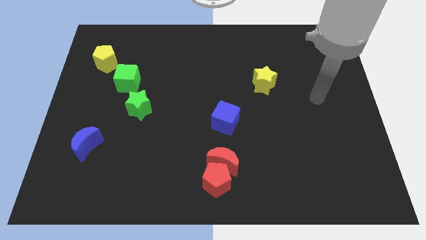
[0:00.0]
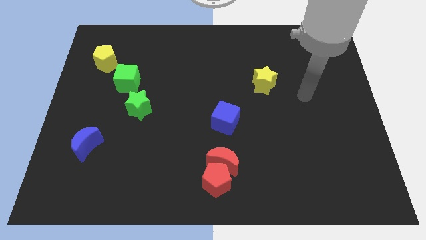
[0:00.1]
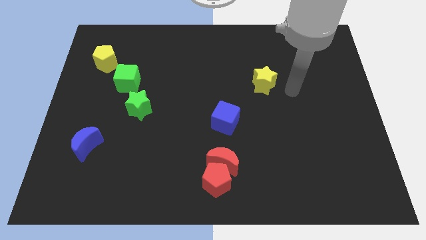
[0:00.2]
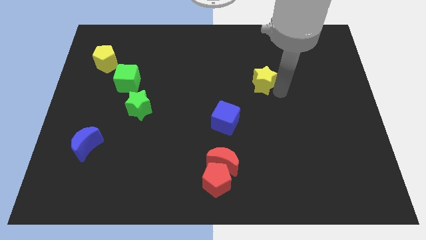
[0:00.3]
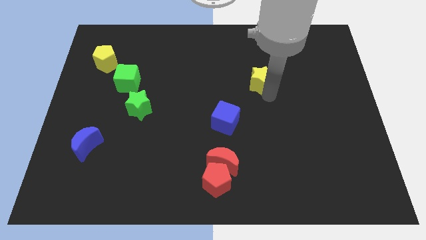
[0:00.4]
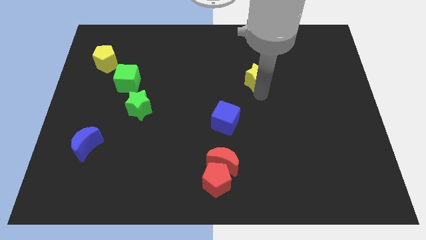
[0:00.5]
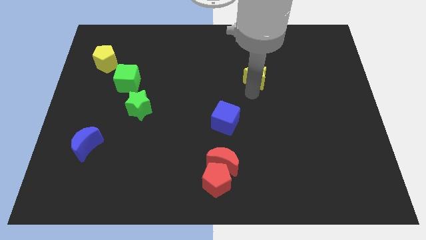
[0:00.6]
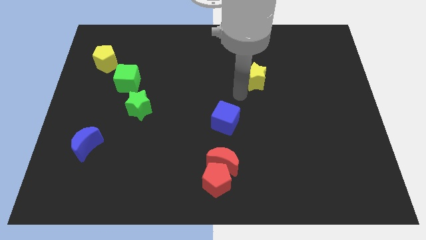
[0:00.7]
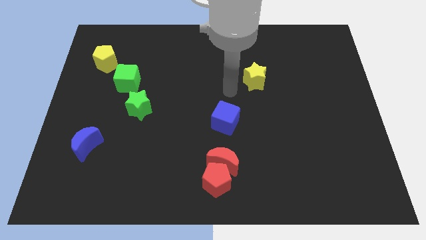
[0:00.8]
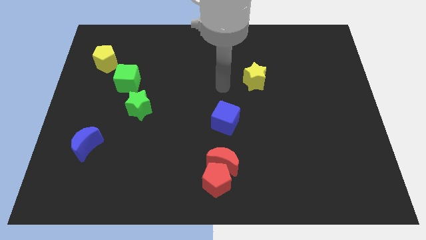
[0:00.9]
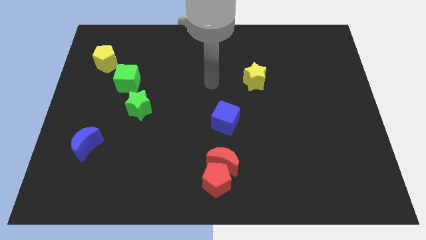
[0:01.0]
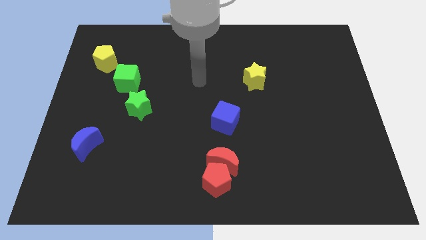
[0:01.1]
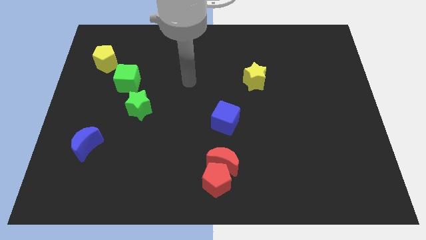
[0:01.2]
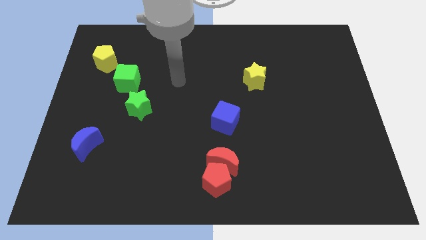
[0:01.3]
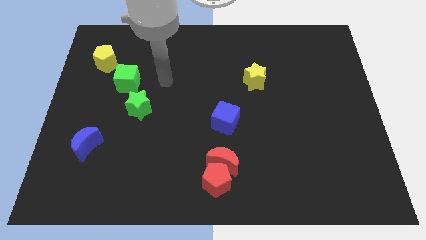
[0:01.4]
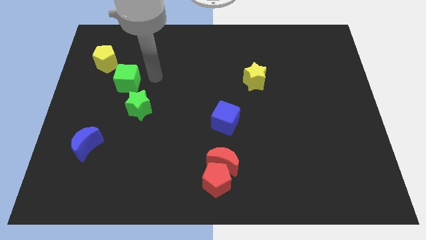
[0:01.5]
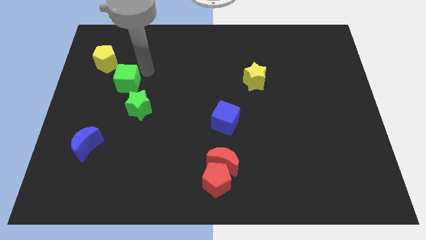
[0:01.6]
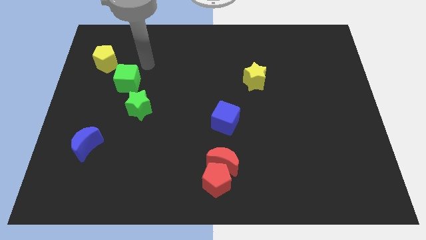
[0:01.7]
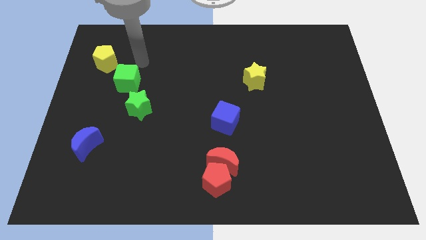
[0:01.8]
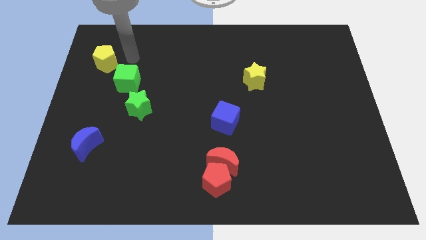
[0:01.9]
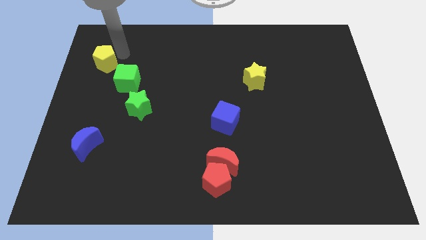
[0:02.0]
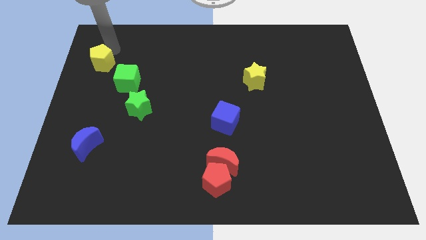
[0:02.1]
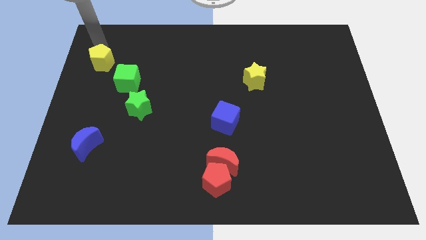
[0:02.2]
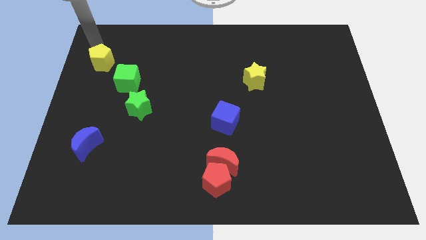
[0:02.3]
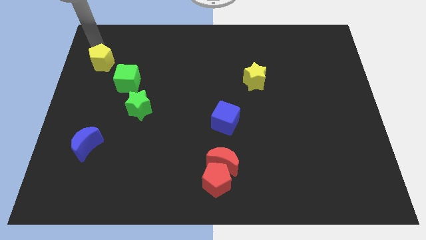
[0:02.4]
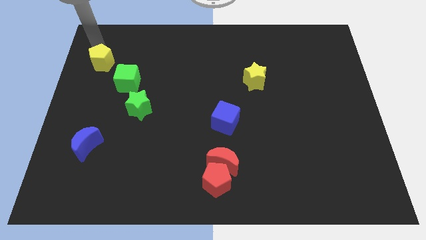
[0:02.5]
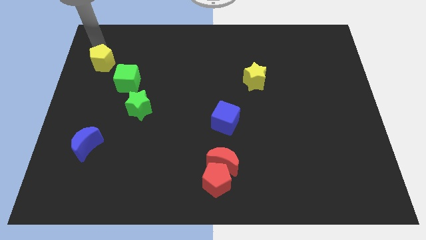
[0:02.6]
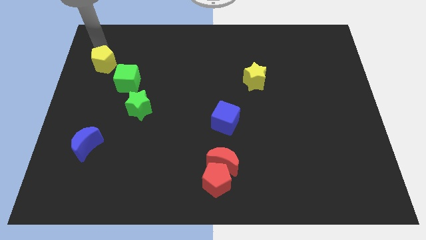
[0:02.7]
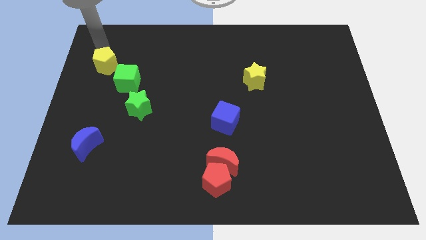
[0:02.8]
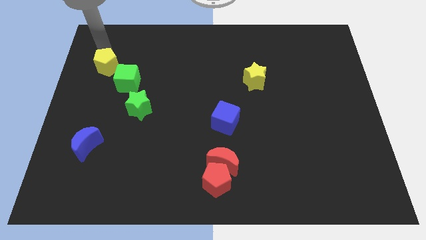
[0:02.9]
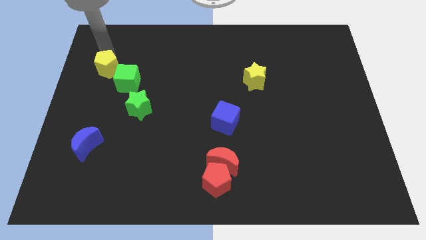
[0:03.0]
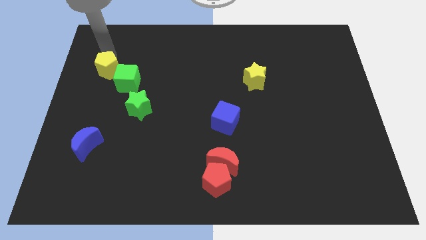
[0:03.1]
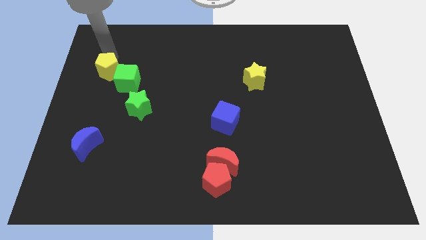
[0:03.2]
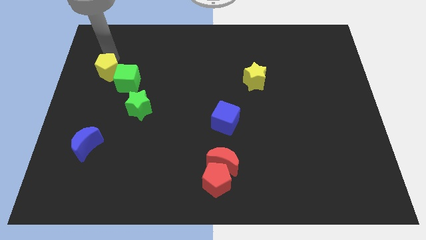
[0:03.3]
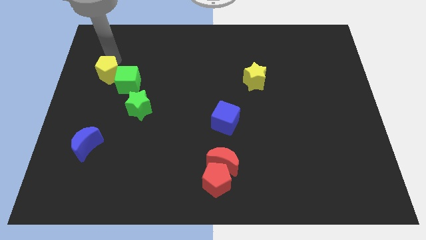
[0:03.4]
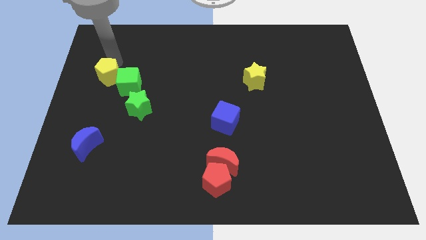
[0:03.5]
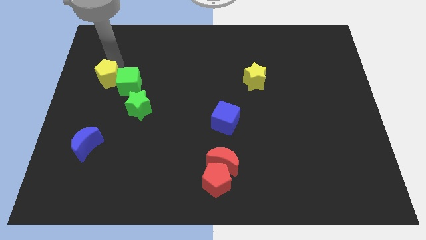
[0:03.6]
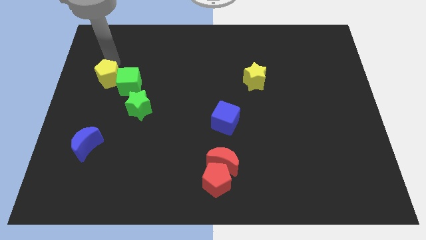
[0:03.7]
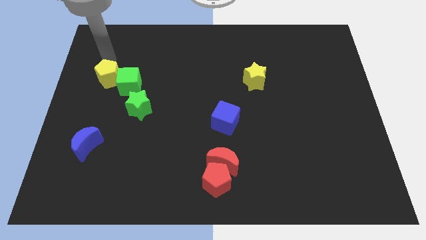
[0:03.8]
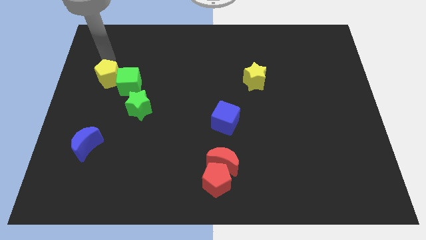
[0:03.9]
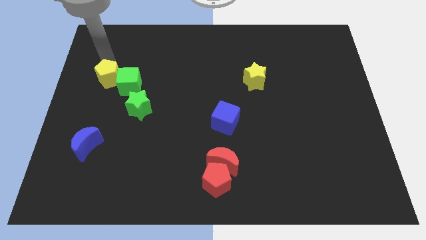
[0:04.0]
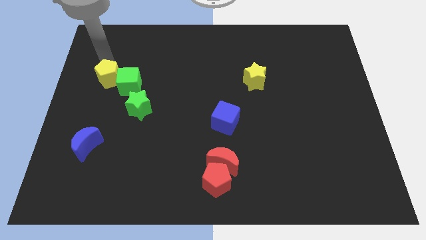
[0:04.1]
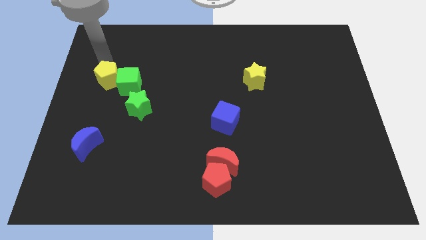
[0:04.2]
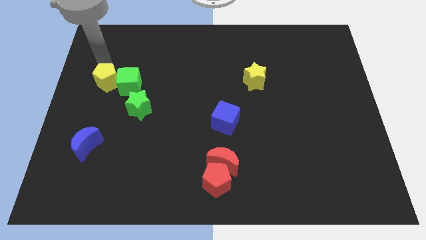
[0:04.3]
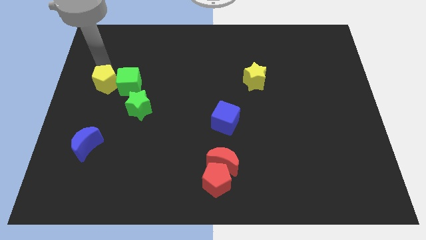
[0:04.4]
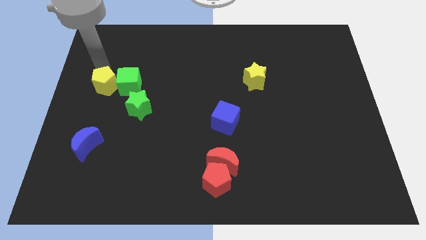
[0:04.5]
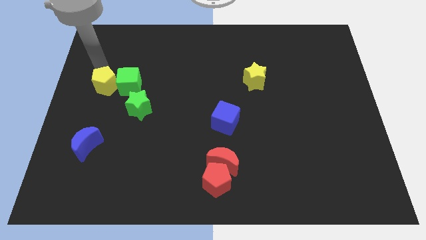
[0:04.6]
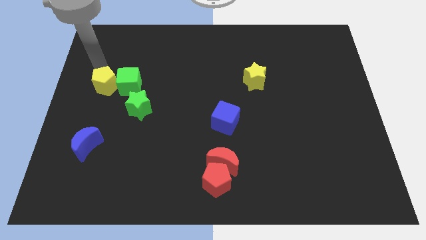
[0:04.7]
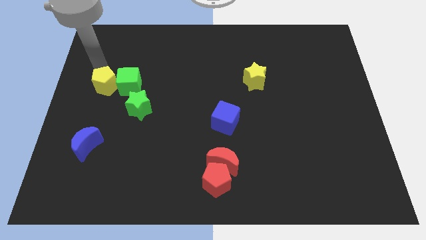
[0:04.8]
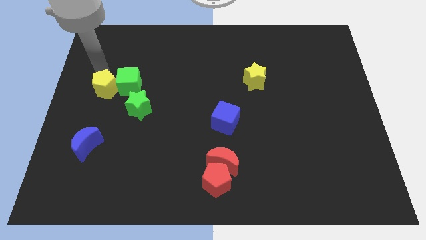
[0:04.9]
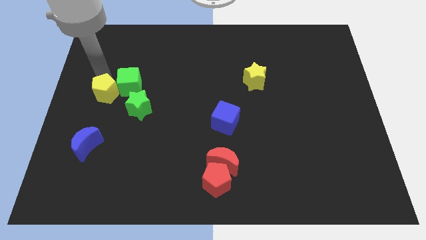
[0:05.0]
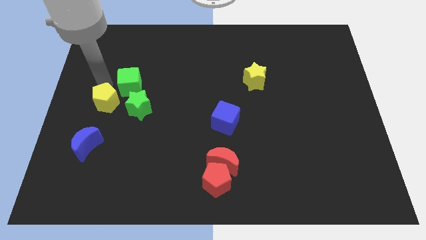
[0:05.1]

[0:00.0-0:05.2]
put the yellow pentagon to the bottom of the green cube

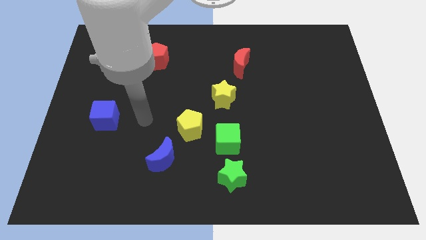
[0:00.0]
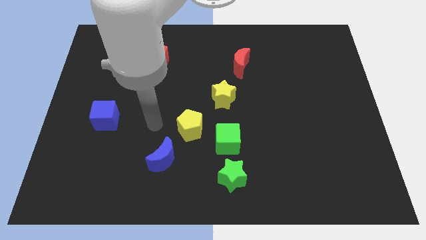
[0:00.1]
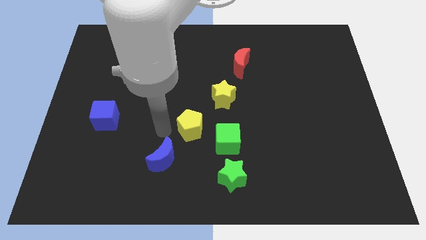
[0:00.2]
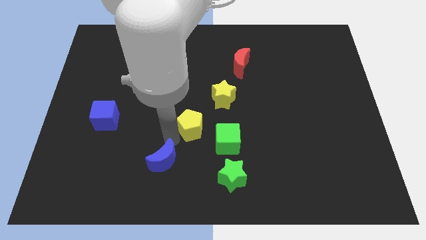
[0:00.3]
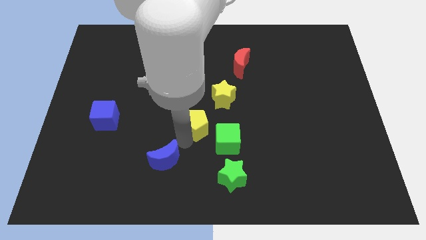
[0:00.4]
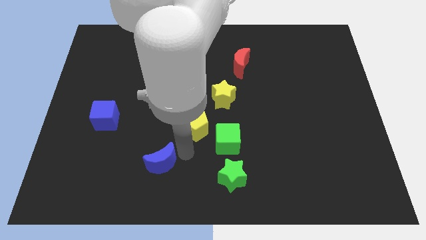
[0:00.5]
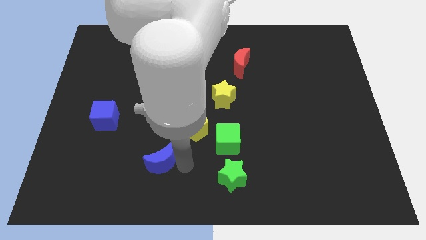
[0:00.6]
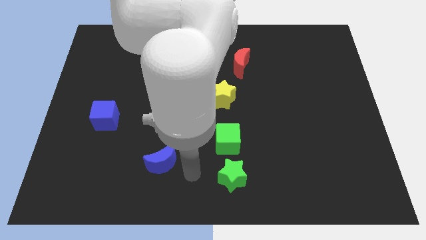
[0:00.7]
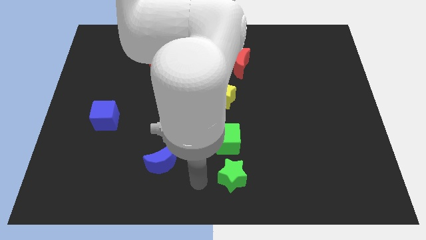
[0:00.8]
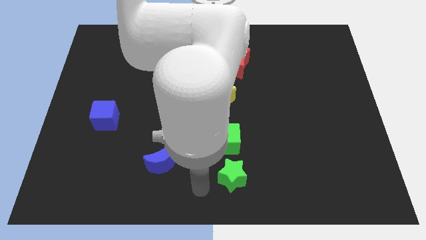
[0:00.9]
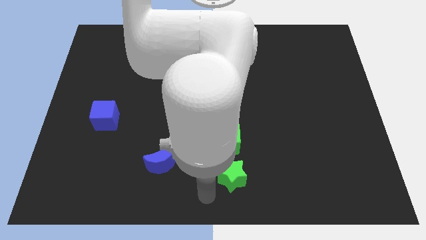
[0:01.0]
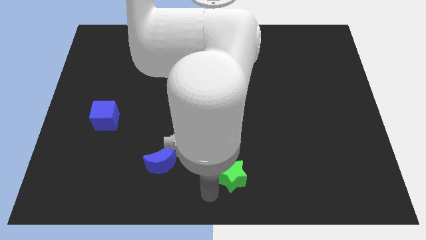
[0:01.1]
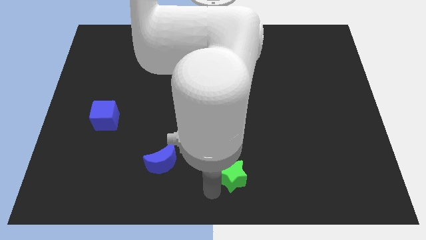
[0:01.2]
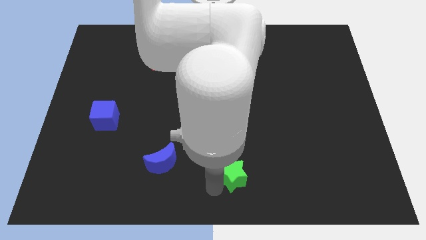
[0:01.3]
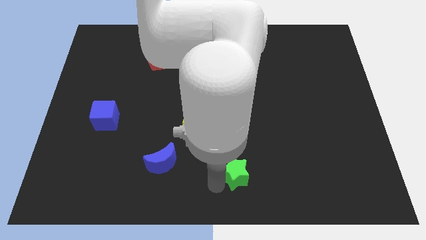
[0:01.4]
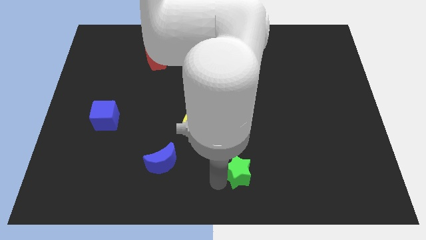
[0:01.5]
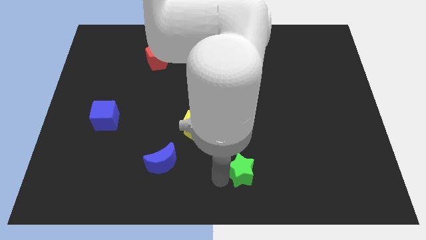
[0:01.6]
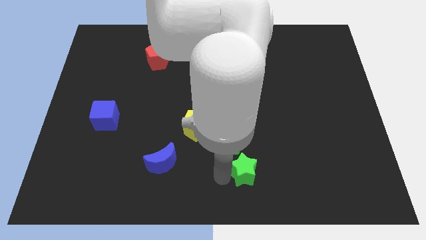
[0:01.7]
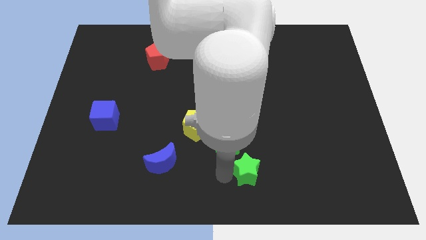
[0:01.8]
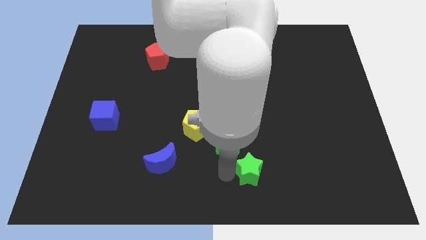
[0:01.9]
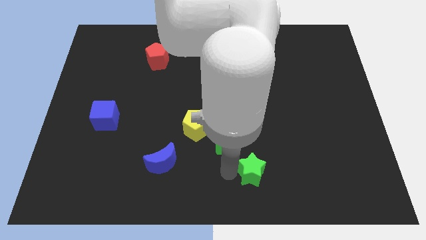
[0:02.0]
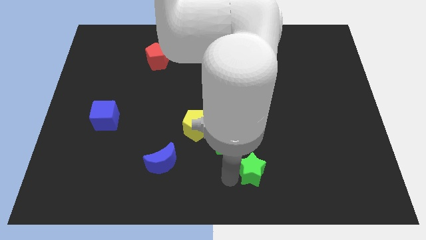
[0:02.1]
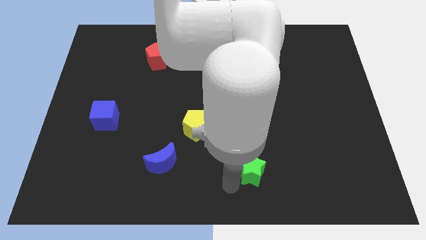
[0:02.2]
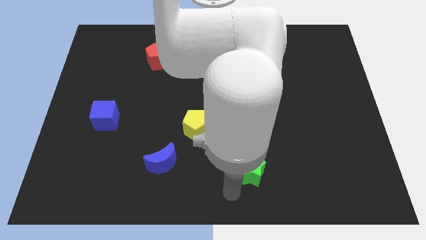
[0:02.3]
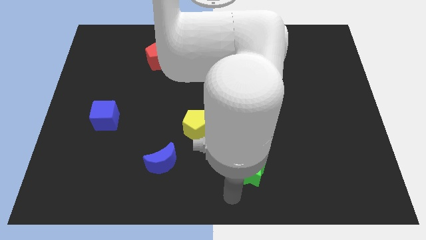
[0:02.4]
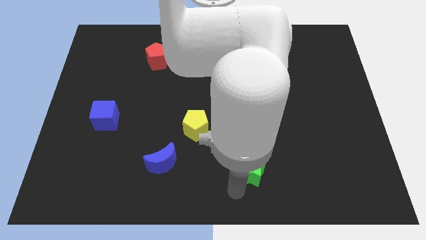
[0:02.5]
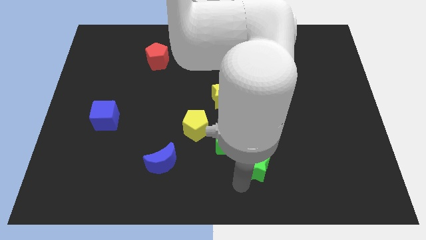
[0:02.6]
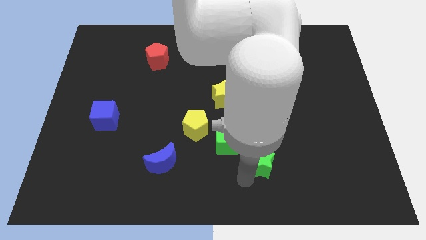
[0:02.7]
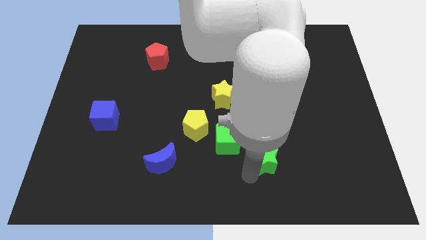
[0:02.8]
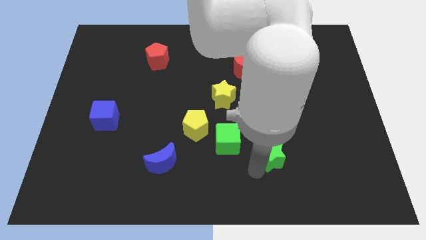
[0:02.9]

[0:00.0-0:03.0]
push the green star right of the green cube
